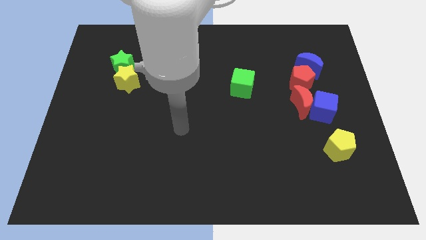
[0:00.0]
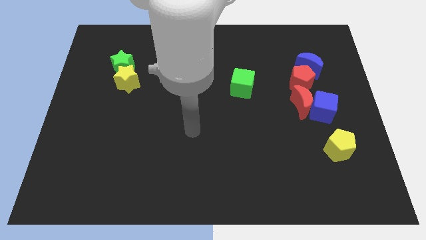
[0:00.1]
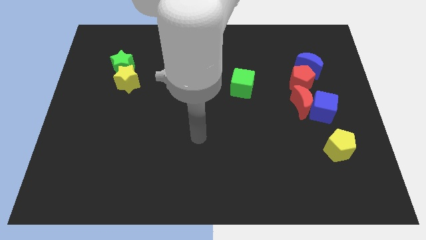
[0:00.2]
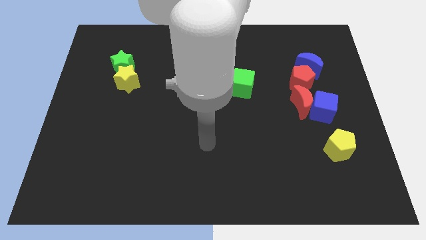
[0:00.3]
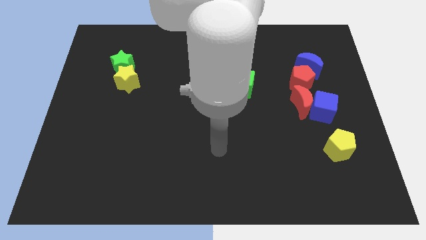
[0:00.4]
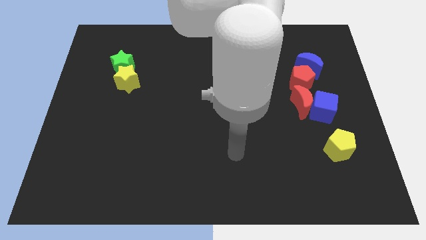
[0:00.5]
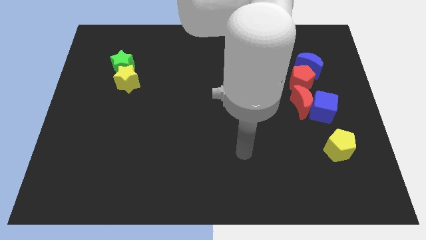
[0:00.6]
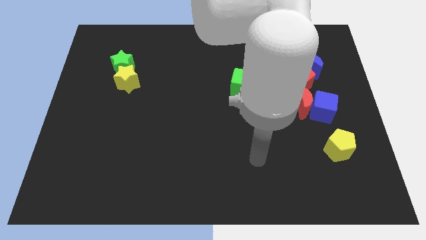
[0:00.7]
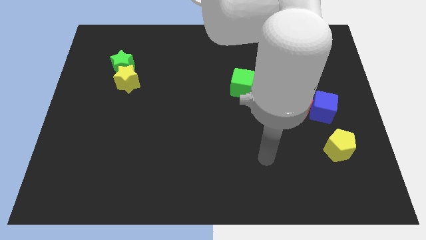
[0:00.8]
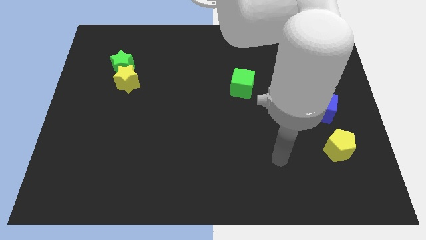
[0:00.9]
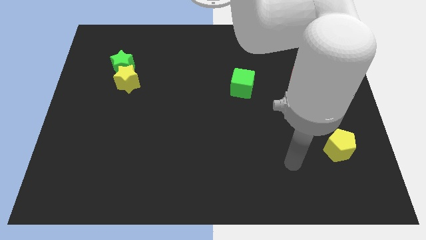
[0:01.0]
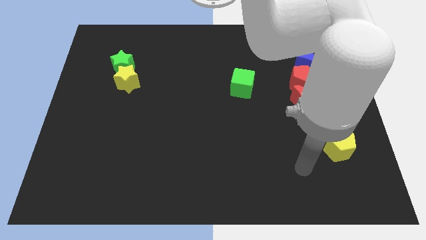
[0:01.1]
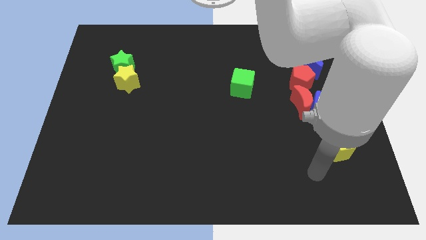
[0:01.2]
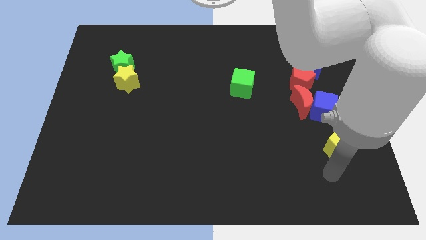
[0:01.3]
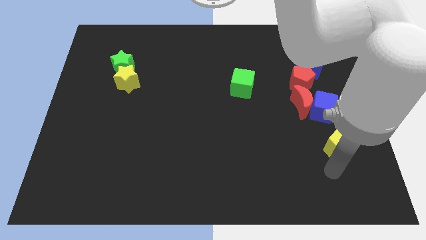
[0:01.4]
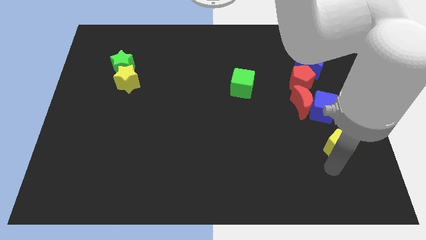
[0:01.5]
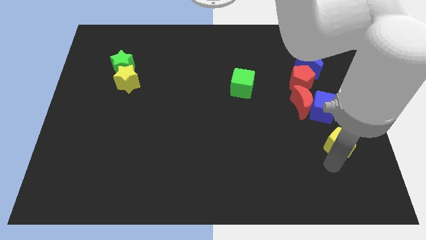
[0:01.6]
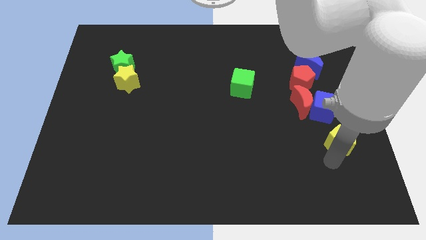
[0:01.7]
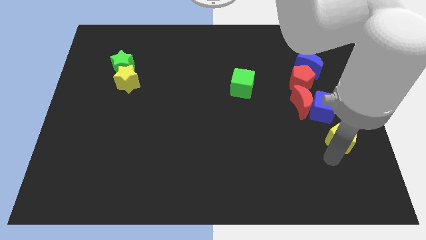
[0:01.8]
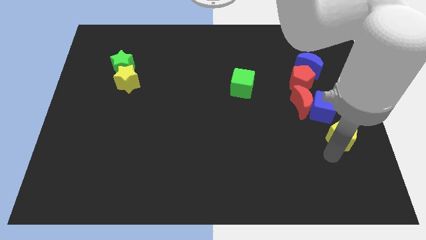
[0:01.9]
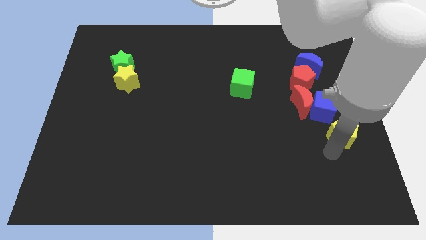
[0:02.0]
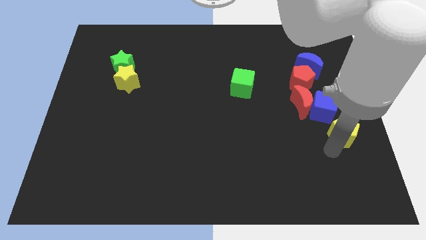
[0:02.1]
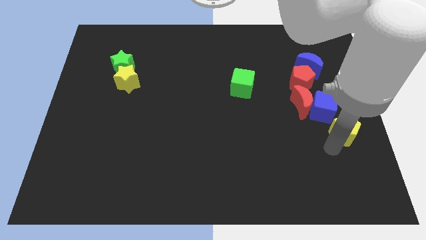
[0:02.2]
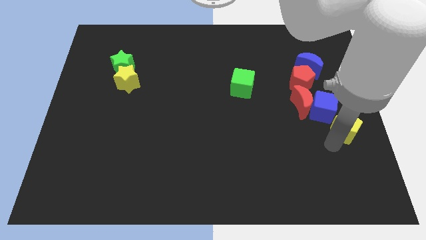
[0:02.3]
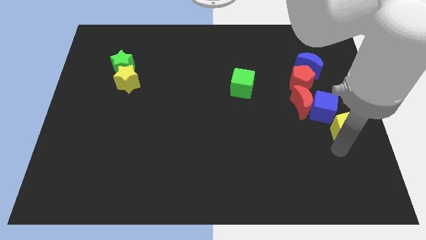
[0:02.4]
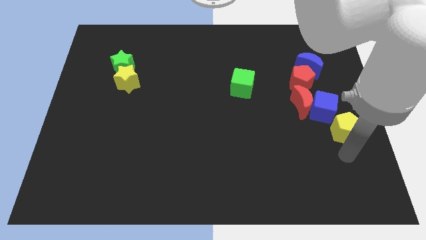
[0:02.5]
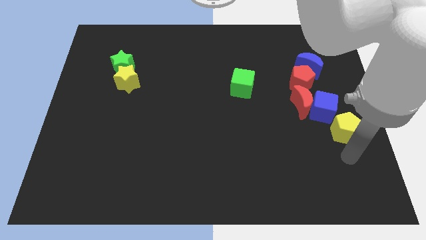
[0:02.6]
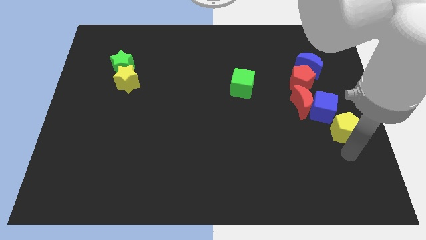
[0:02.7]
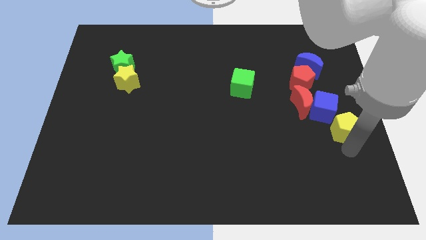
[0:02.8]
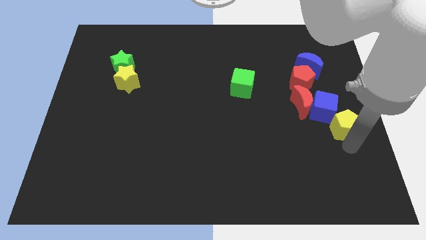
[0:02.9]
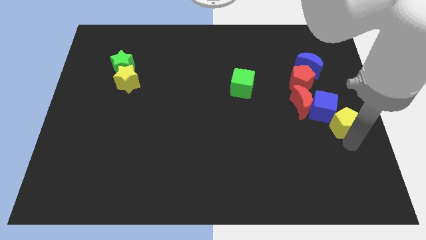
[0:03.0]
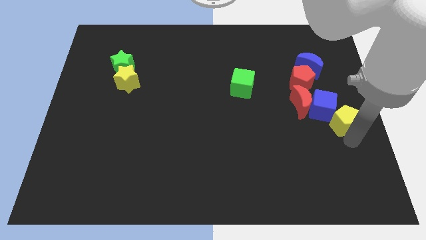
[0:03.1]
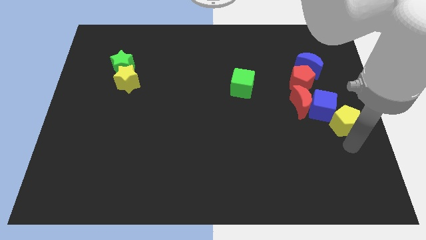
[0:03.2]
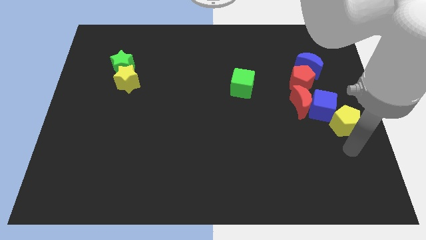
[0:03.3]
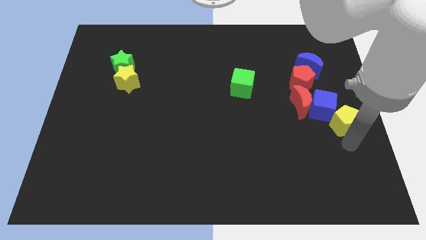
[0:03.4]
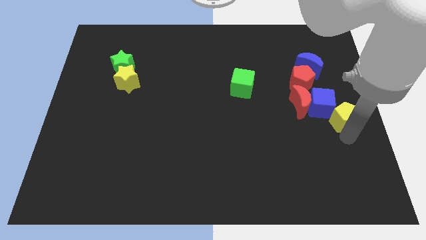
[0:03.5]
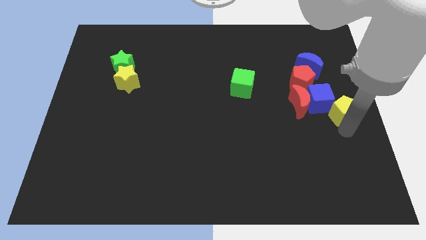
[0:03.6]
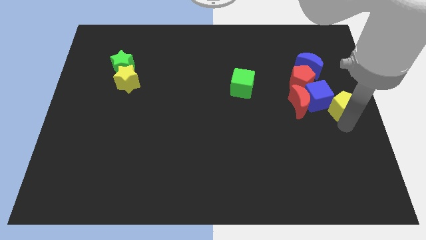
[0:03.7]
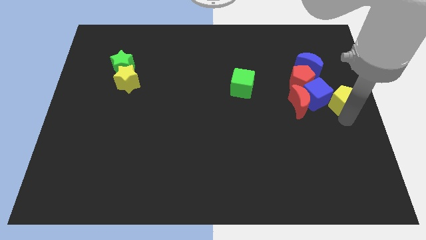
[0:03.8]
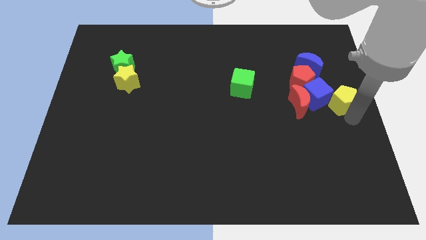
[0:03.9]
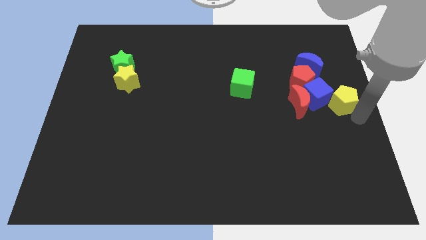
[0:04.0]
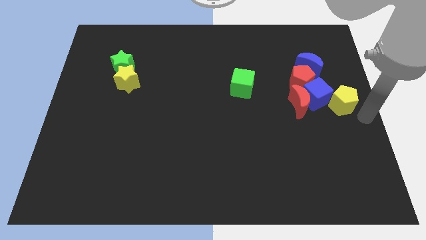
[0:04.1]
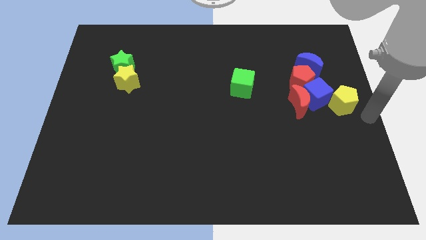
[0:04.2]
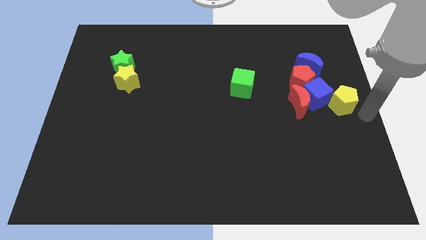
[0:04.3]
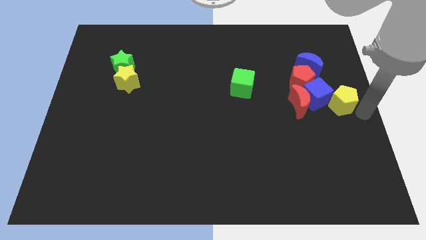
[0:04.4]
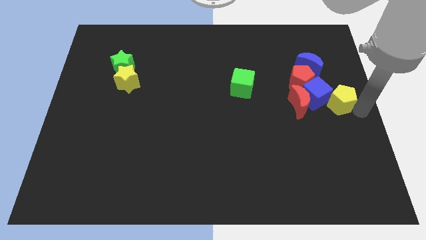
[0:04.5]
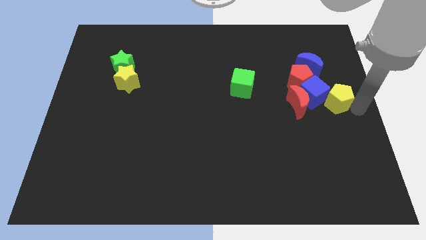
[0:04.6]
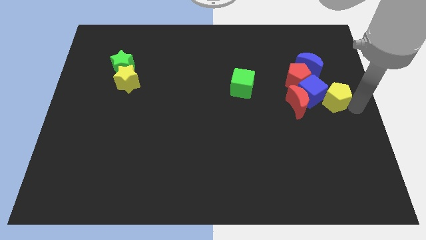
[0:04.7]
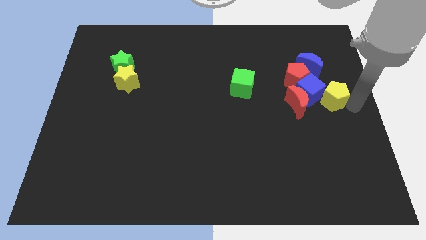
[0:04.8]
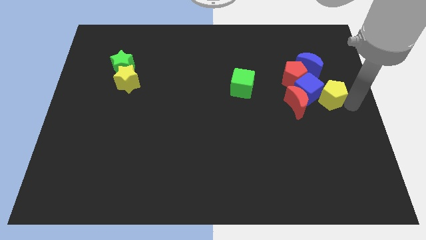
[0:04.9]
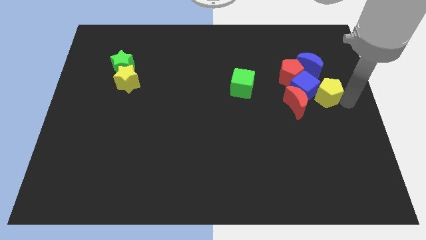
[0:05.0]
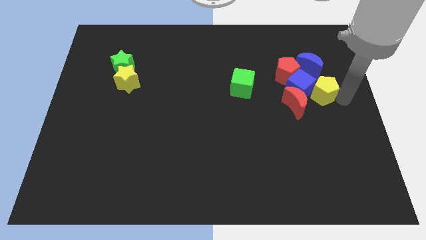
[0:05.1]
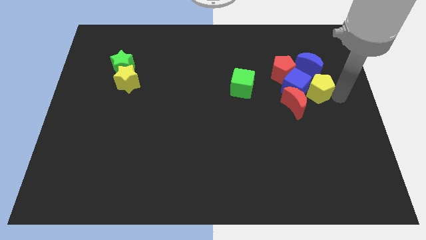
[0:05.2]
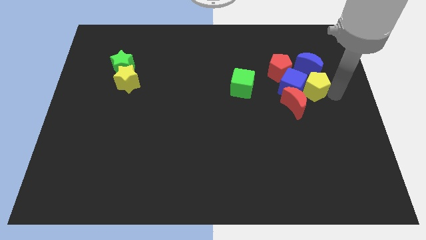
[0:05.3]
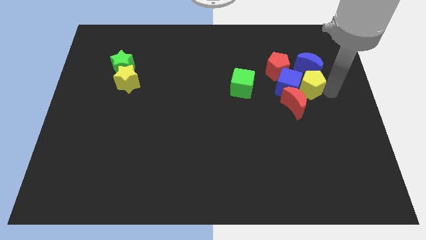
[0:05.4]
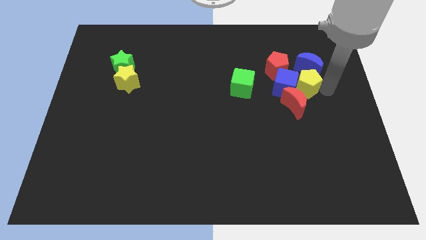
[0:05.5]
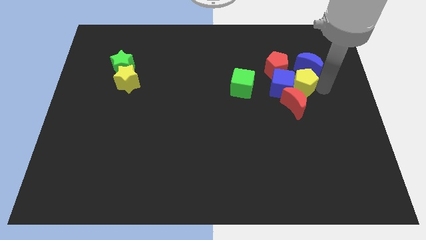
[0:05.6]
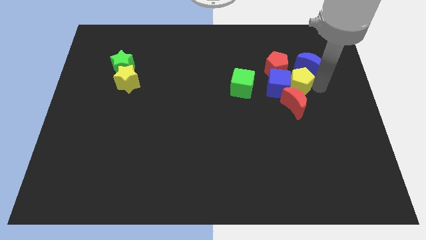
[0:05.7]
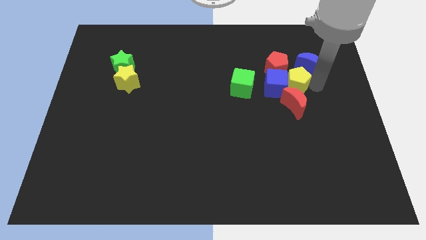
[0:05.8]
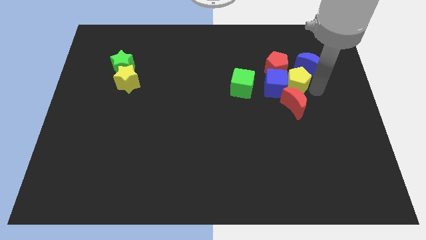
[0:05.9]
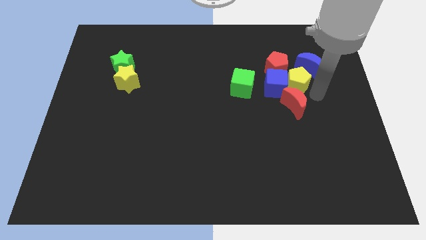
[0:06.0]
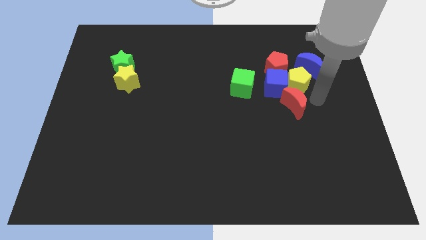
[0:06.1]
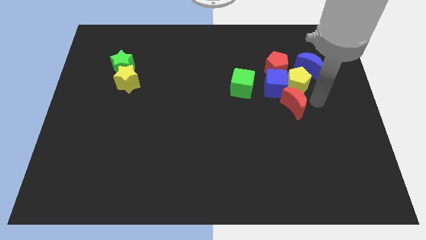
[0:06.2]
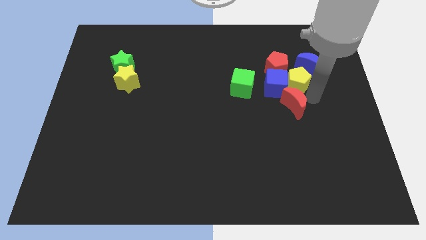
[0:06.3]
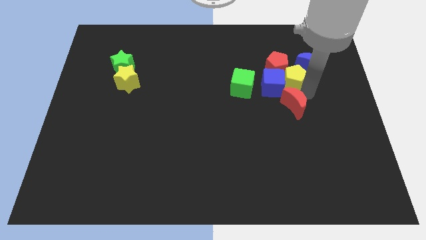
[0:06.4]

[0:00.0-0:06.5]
push the yellow pentagon next to the red pentagon
